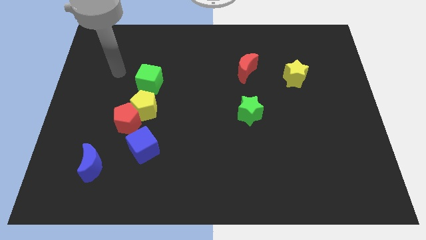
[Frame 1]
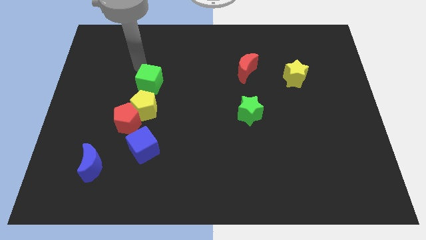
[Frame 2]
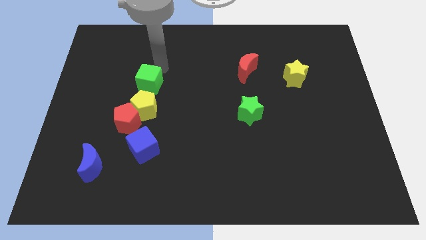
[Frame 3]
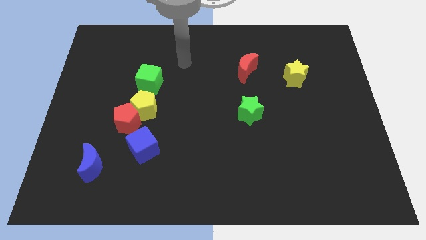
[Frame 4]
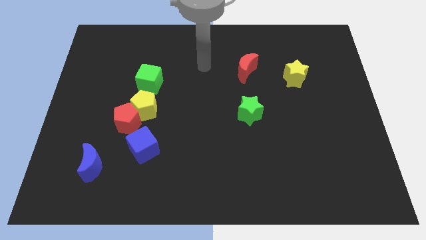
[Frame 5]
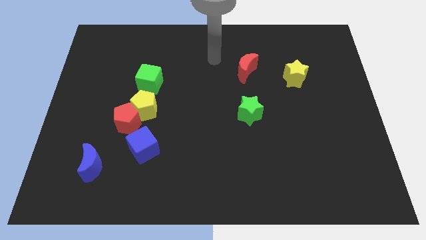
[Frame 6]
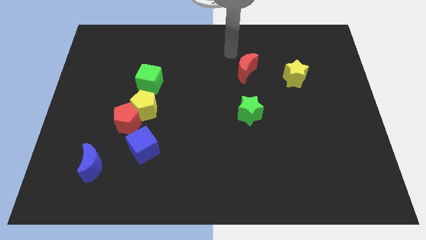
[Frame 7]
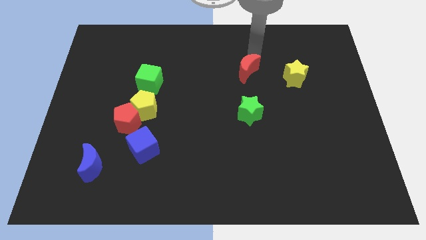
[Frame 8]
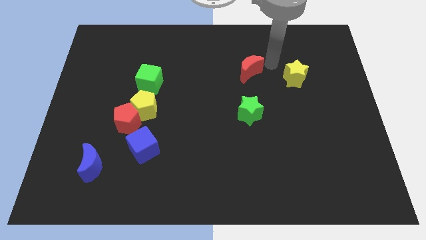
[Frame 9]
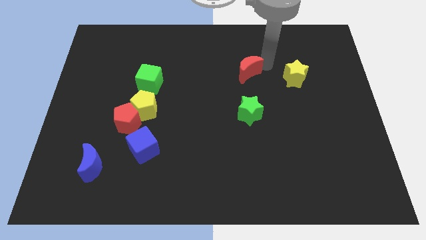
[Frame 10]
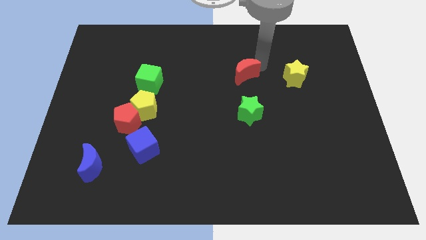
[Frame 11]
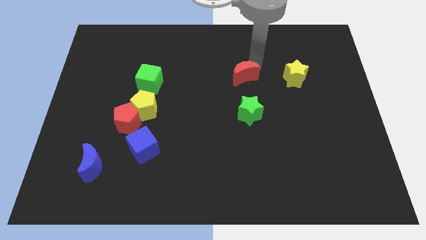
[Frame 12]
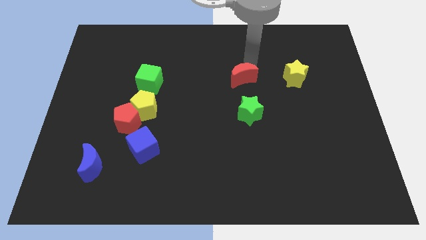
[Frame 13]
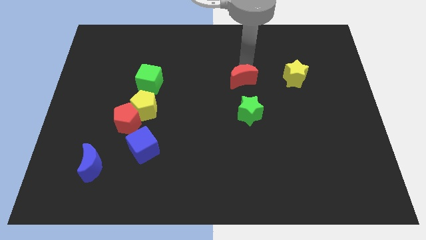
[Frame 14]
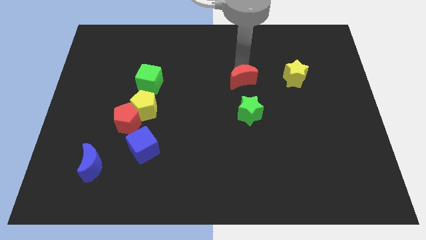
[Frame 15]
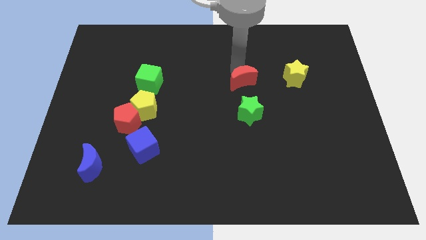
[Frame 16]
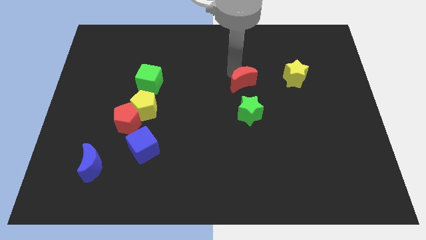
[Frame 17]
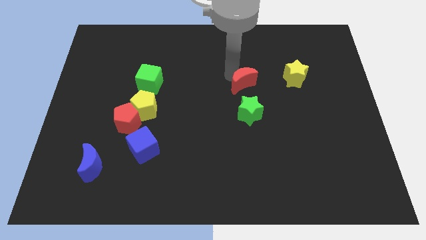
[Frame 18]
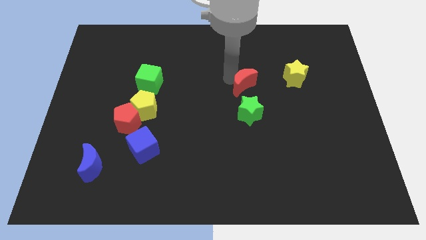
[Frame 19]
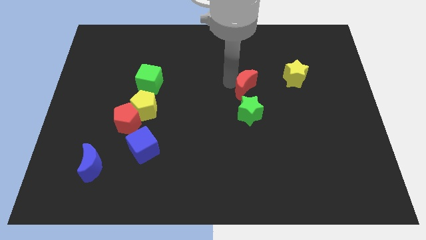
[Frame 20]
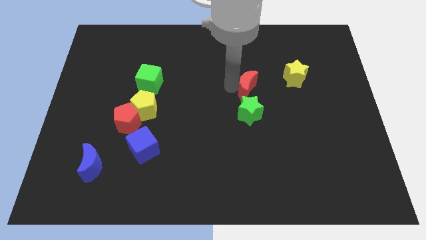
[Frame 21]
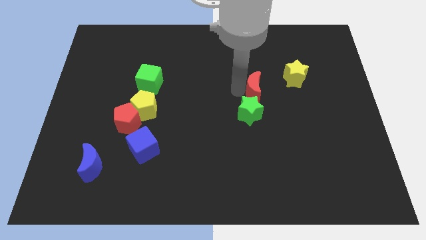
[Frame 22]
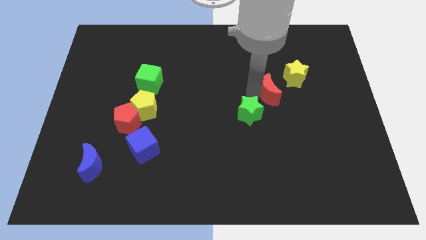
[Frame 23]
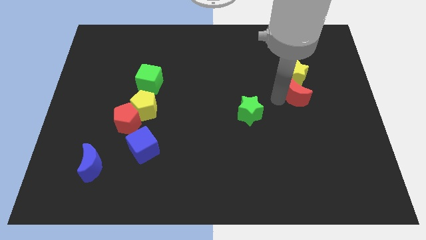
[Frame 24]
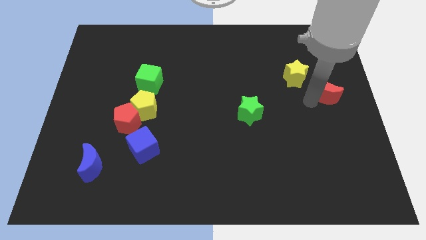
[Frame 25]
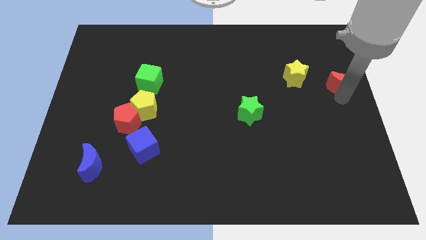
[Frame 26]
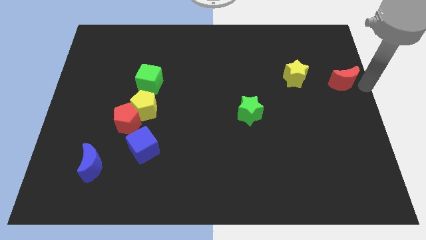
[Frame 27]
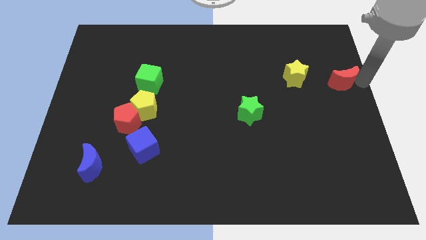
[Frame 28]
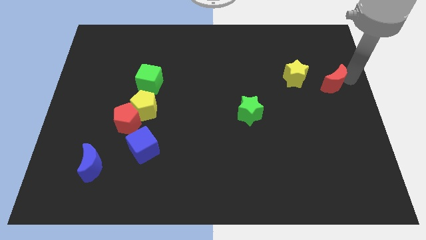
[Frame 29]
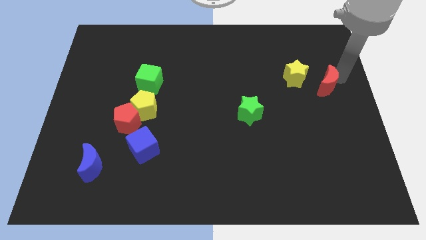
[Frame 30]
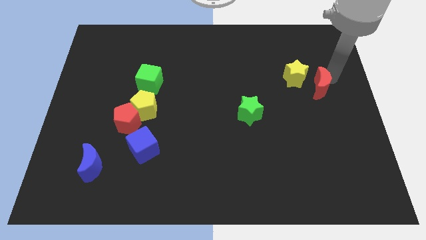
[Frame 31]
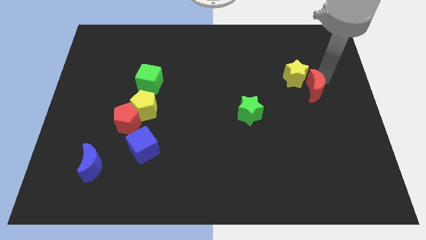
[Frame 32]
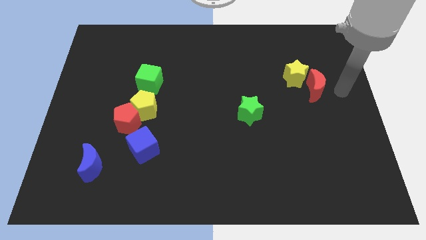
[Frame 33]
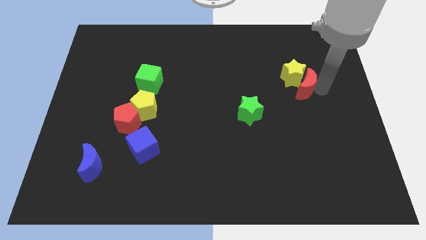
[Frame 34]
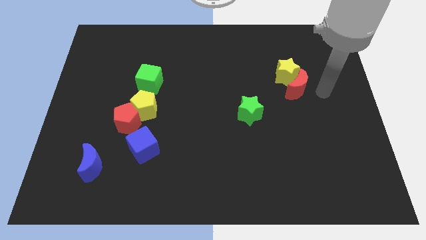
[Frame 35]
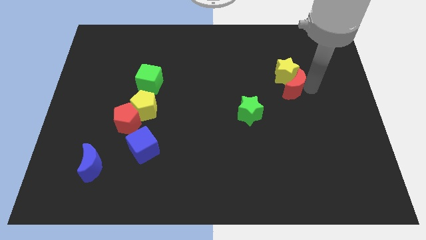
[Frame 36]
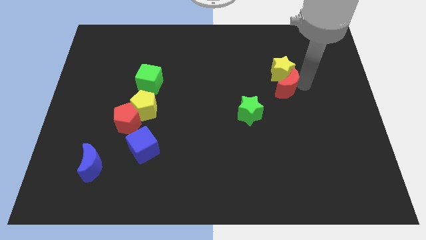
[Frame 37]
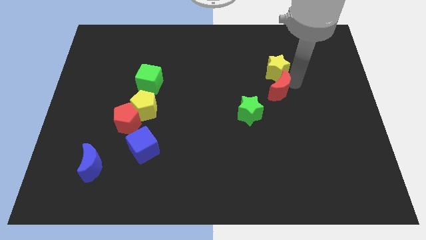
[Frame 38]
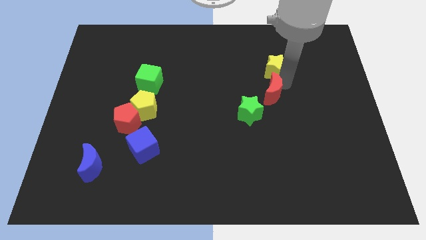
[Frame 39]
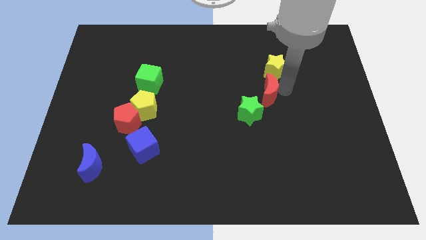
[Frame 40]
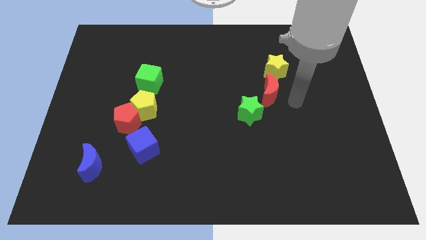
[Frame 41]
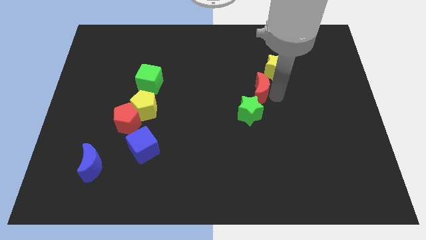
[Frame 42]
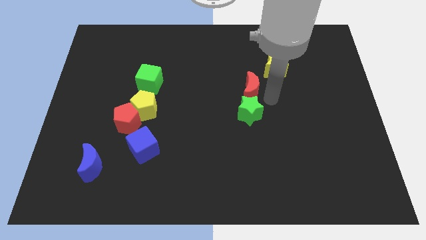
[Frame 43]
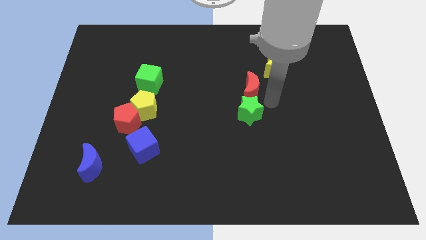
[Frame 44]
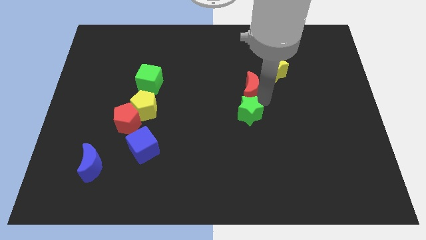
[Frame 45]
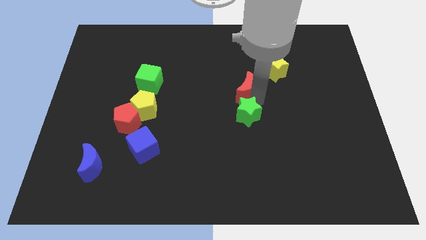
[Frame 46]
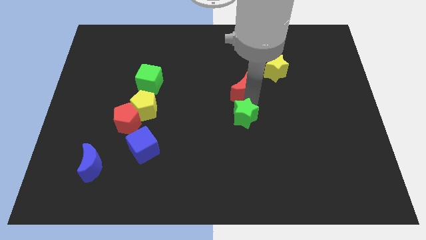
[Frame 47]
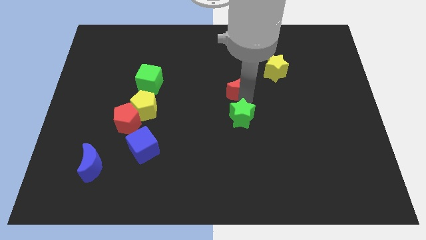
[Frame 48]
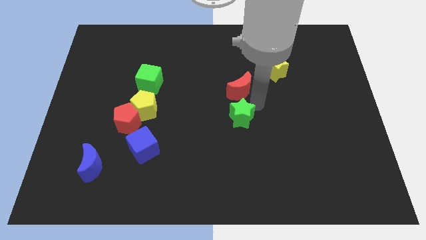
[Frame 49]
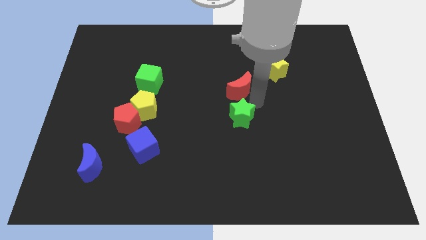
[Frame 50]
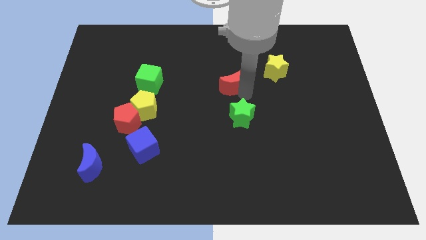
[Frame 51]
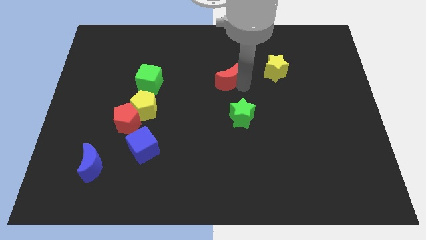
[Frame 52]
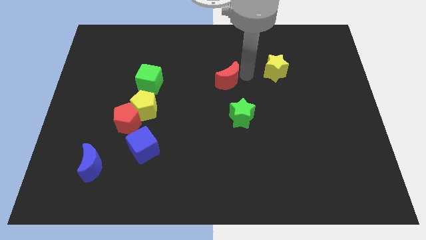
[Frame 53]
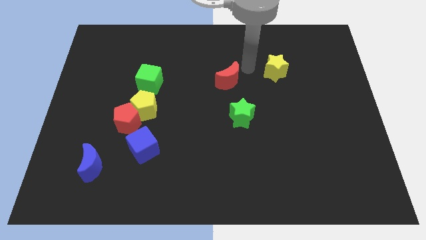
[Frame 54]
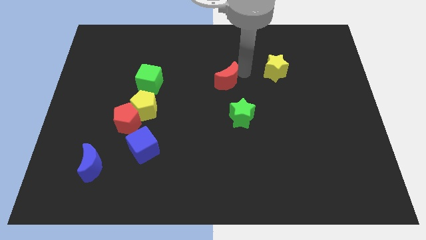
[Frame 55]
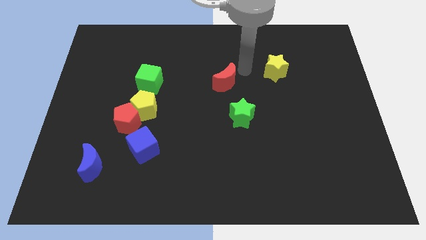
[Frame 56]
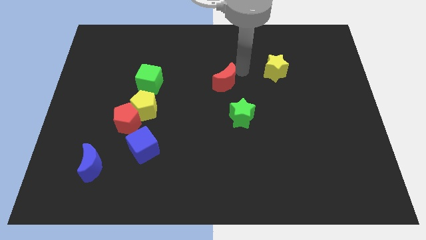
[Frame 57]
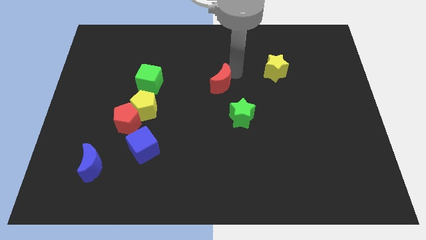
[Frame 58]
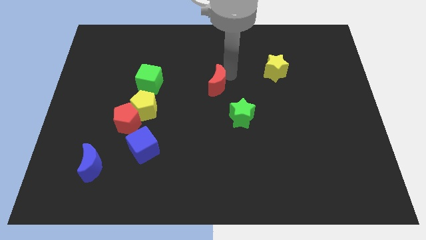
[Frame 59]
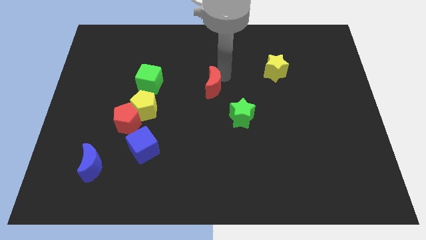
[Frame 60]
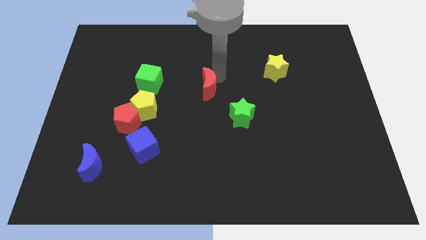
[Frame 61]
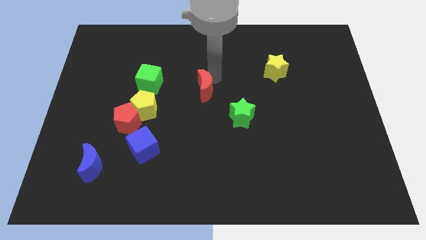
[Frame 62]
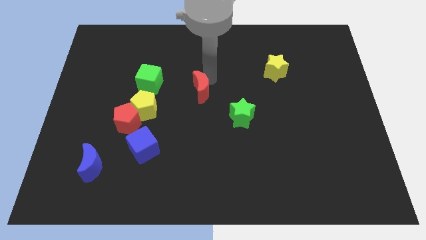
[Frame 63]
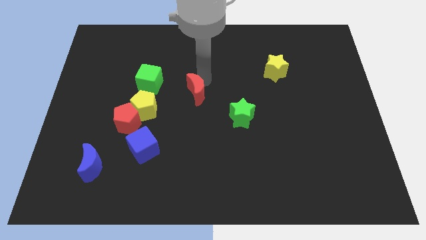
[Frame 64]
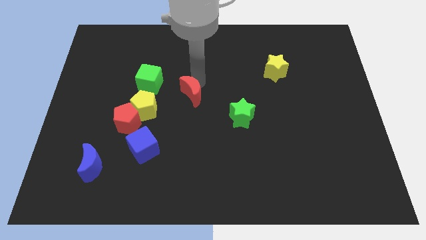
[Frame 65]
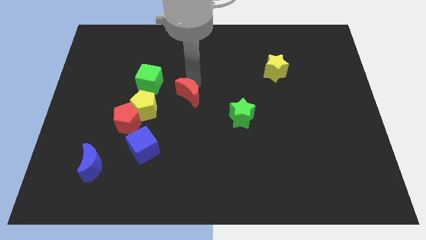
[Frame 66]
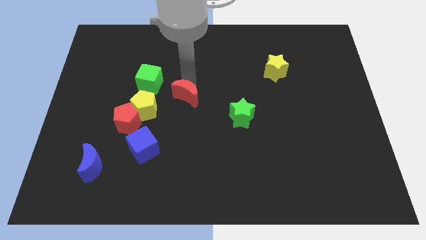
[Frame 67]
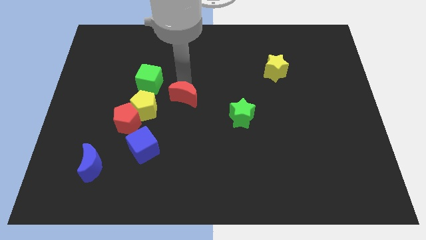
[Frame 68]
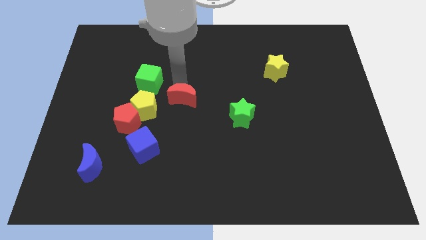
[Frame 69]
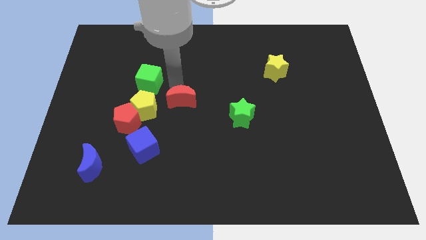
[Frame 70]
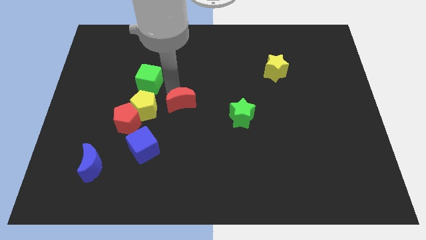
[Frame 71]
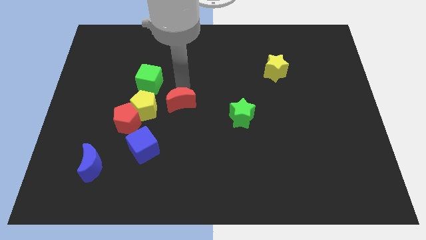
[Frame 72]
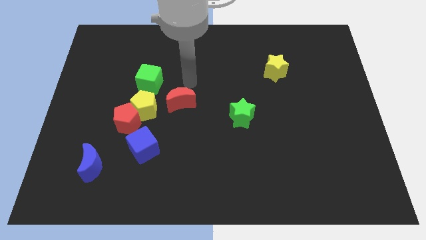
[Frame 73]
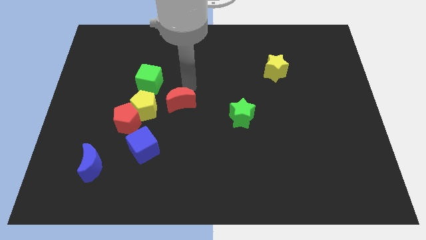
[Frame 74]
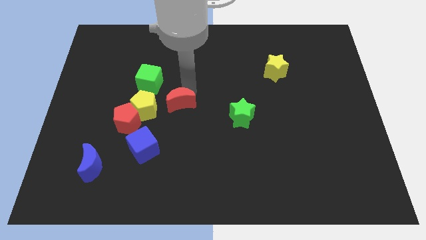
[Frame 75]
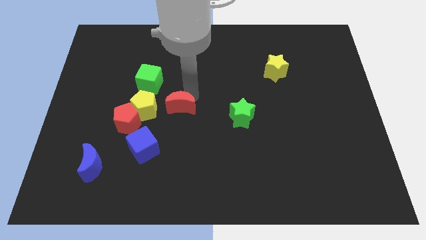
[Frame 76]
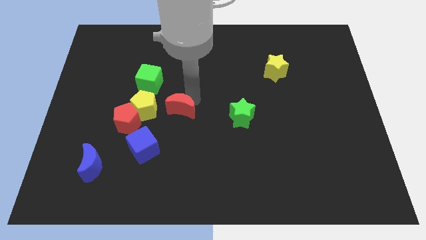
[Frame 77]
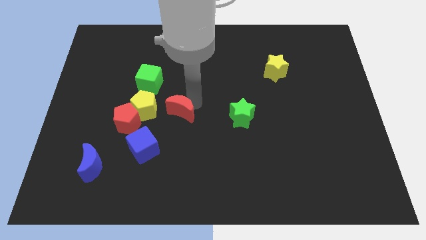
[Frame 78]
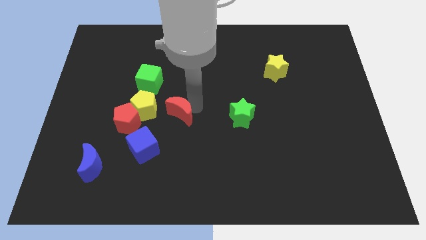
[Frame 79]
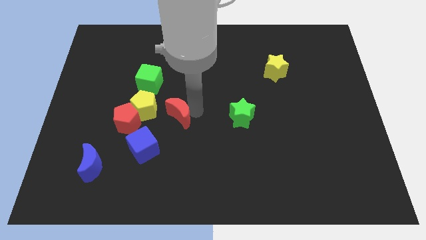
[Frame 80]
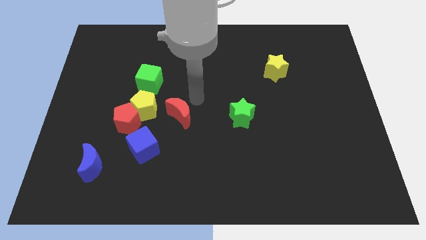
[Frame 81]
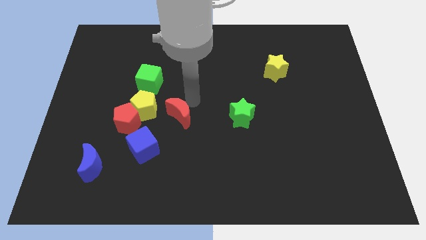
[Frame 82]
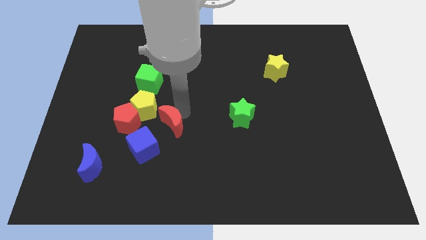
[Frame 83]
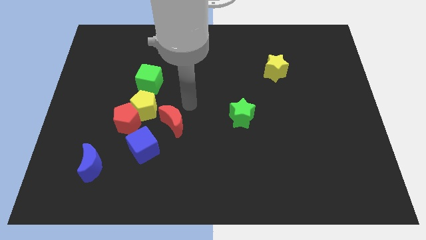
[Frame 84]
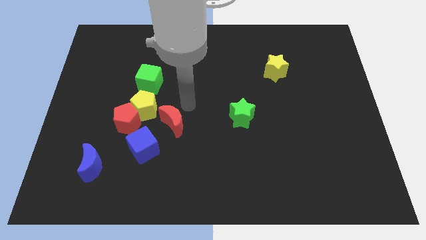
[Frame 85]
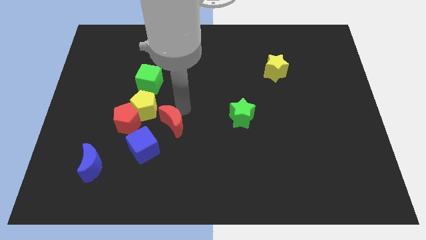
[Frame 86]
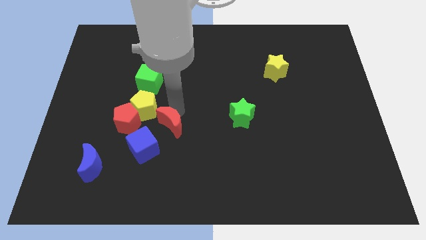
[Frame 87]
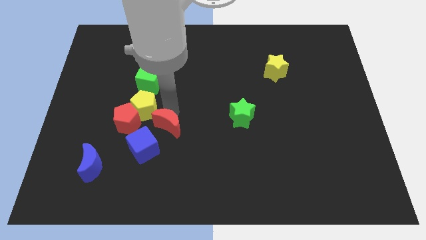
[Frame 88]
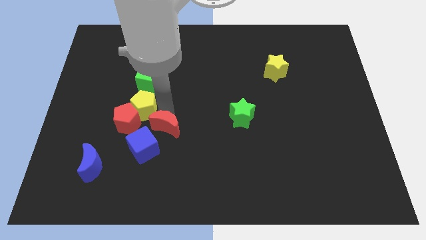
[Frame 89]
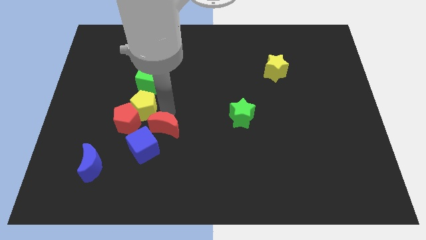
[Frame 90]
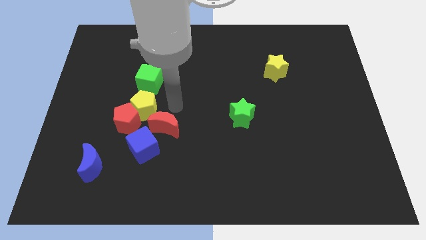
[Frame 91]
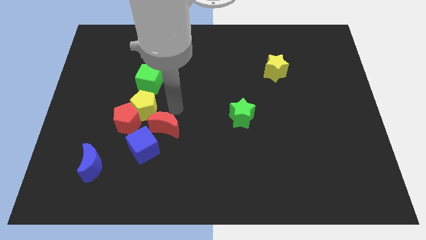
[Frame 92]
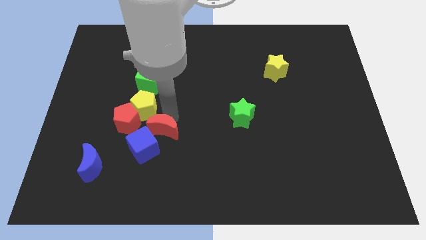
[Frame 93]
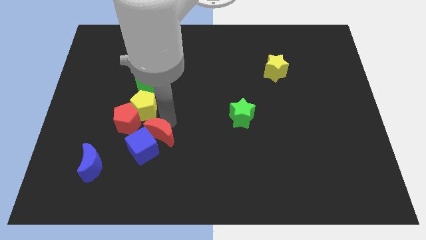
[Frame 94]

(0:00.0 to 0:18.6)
slide the red moon close to the blue cube
